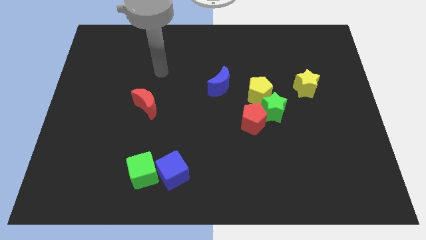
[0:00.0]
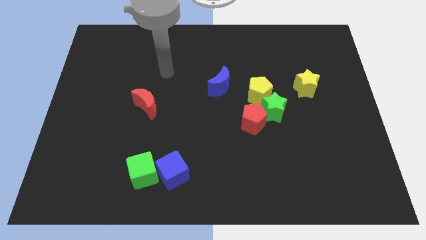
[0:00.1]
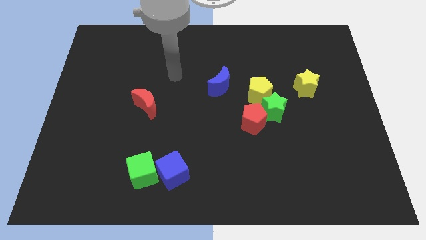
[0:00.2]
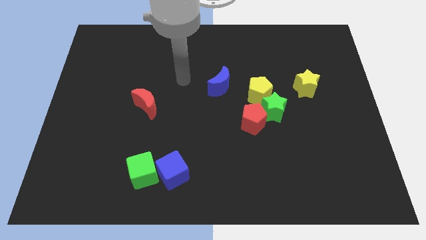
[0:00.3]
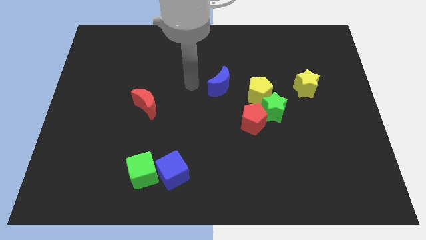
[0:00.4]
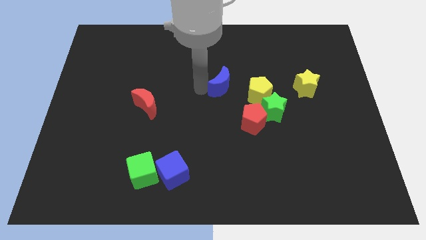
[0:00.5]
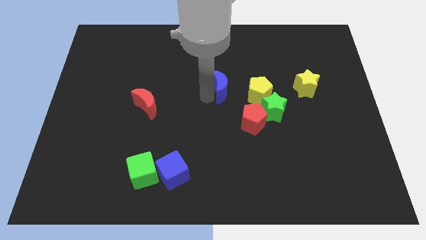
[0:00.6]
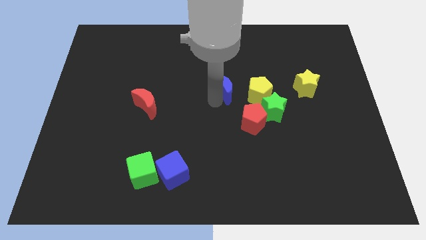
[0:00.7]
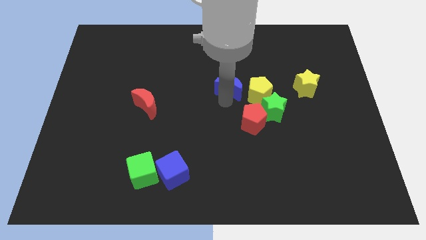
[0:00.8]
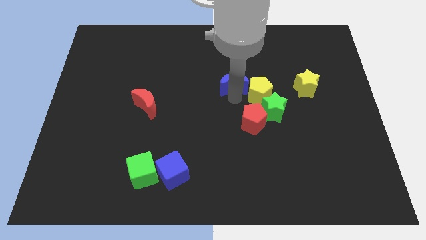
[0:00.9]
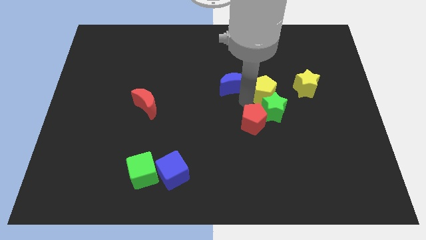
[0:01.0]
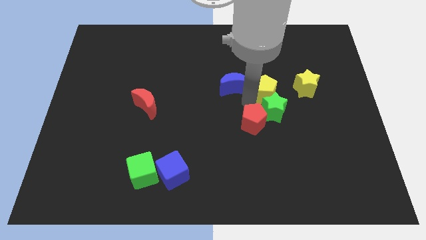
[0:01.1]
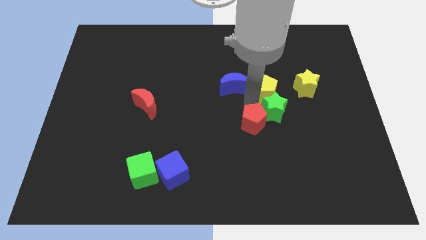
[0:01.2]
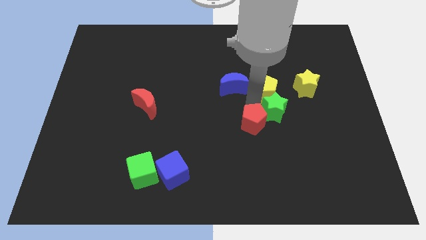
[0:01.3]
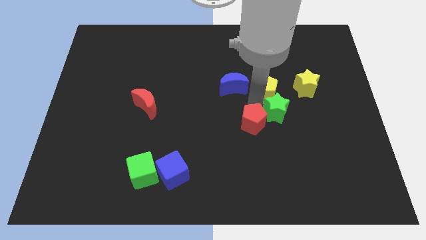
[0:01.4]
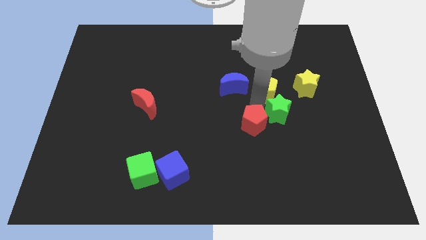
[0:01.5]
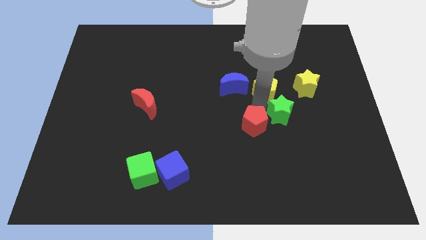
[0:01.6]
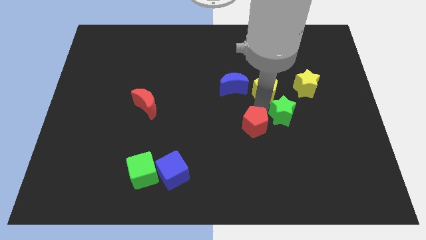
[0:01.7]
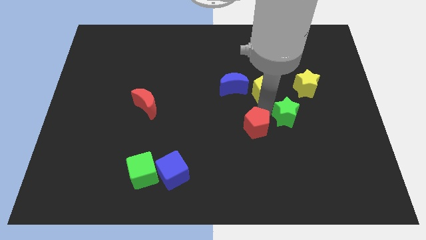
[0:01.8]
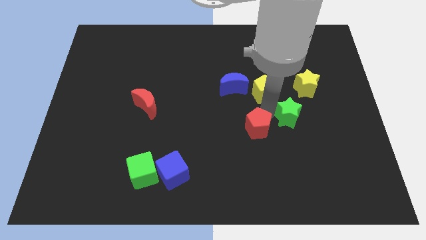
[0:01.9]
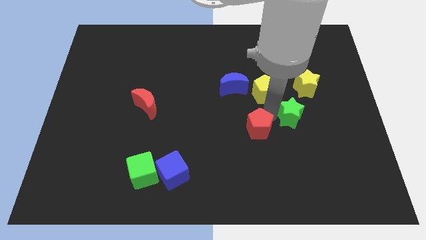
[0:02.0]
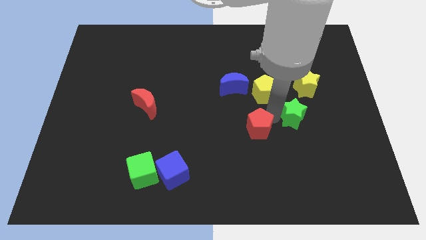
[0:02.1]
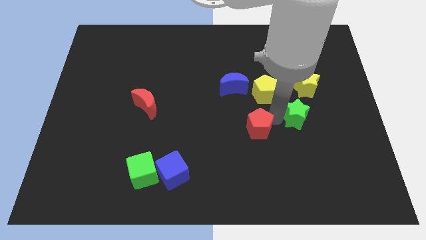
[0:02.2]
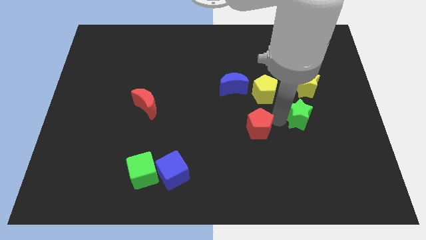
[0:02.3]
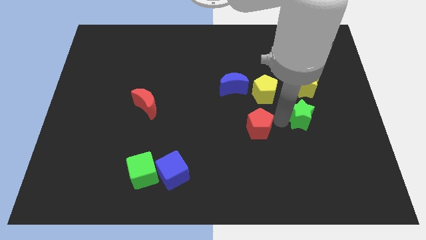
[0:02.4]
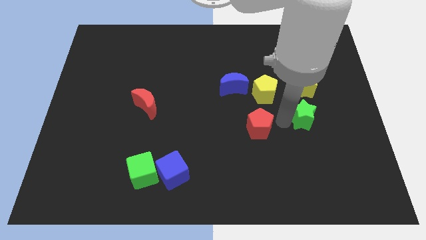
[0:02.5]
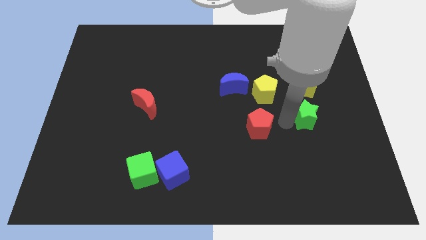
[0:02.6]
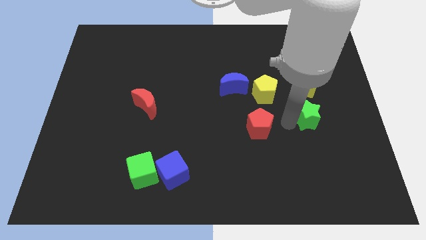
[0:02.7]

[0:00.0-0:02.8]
pull the green star apart from the red pentagon and yellow pentagon

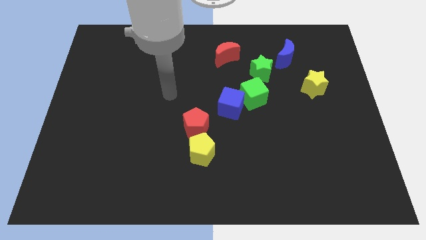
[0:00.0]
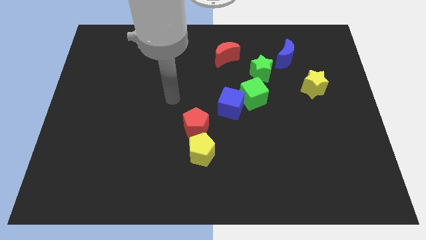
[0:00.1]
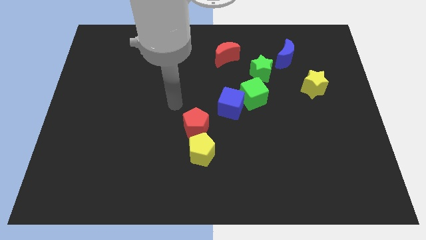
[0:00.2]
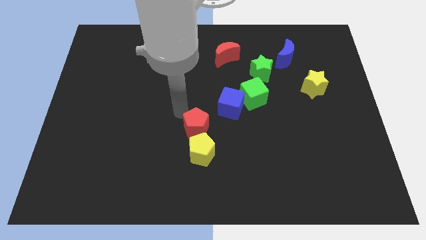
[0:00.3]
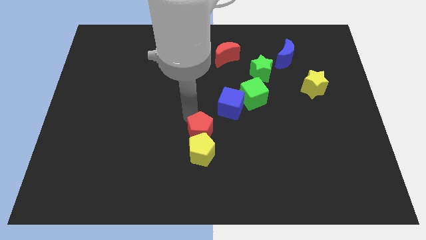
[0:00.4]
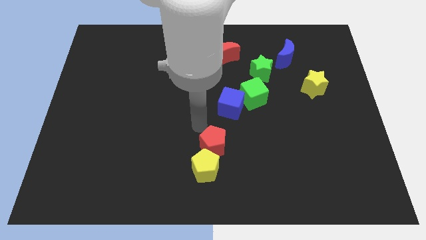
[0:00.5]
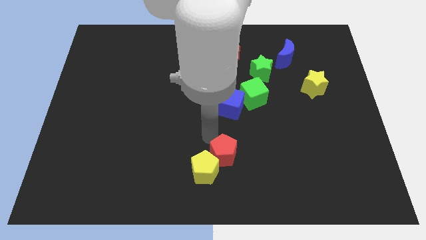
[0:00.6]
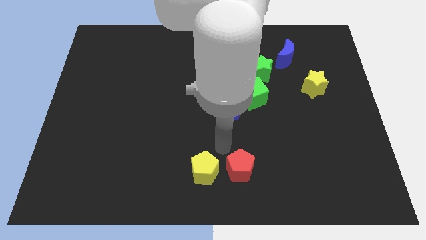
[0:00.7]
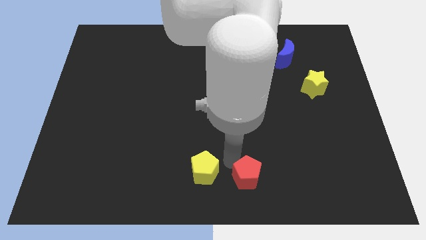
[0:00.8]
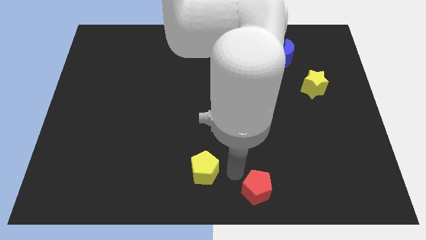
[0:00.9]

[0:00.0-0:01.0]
pull the yellow pentagon apart from the red pentagon

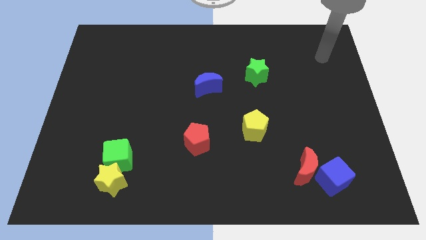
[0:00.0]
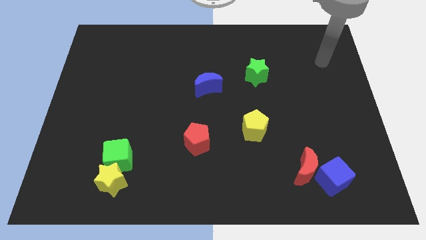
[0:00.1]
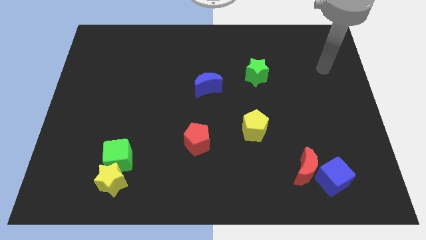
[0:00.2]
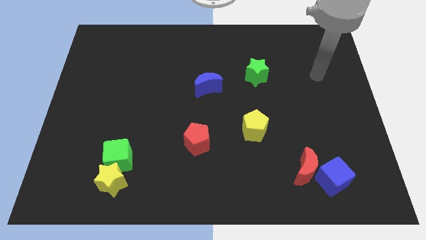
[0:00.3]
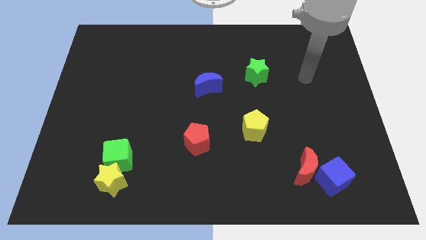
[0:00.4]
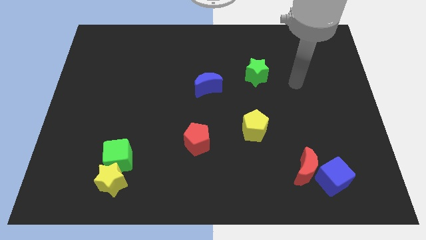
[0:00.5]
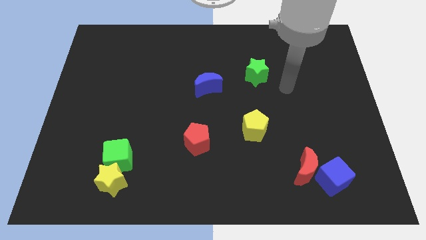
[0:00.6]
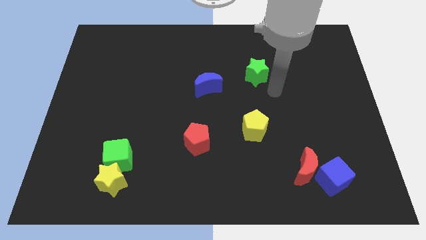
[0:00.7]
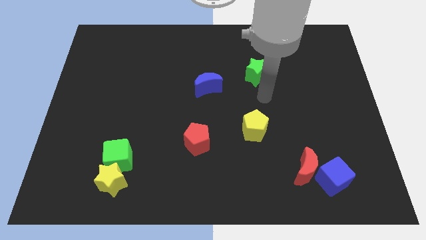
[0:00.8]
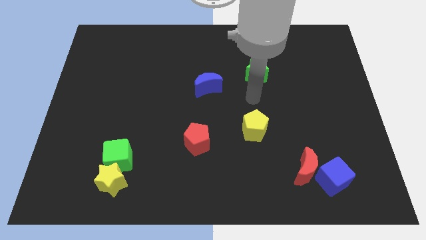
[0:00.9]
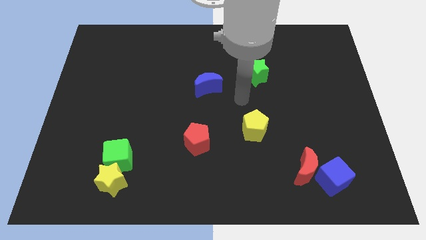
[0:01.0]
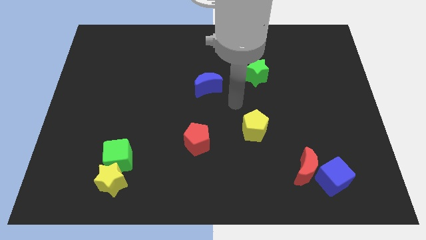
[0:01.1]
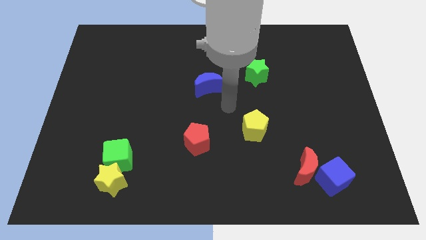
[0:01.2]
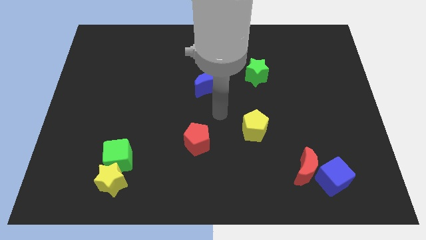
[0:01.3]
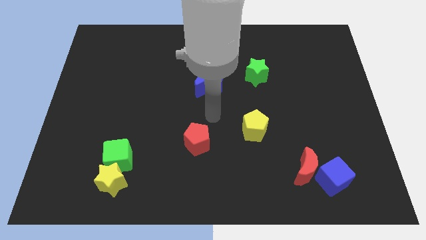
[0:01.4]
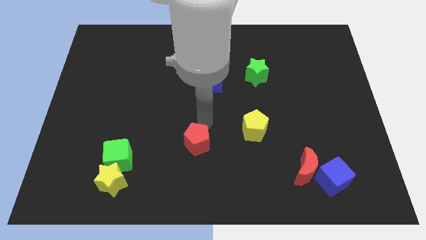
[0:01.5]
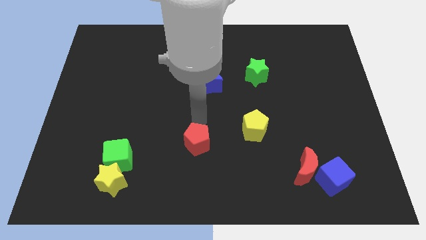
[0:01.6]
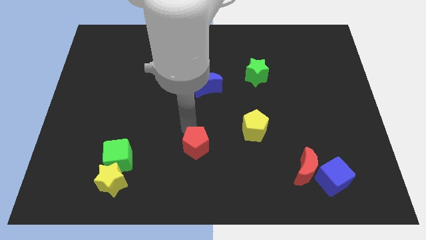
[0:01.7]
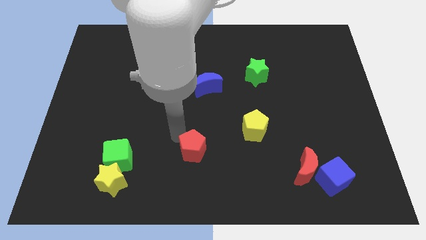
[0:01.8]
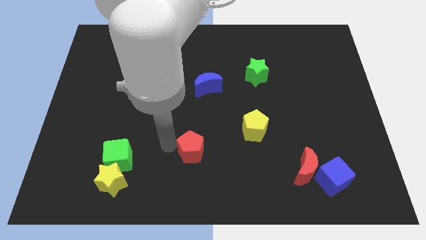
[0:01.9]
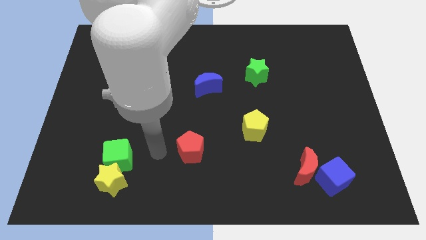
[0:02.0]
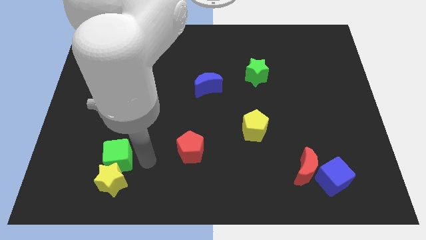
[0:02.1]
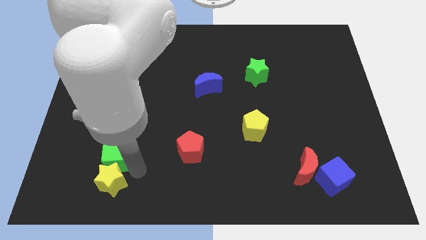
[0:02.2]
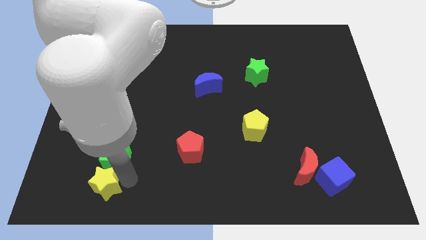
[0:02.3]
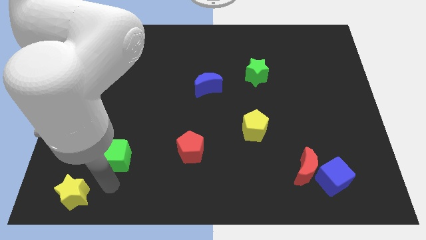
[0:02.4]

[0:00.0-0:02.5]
pull the green cube apart from the yellow star

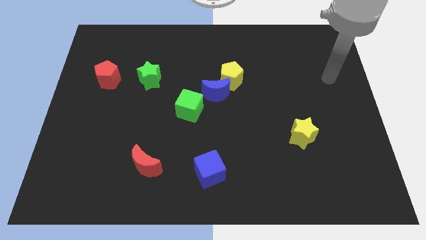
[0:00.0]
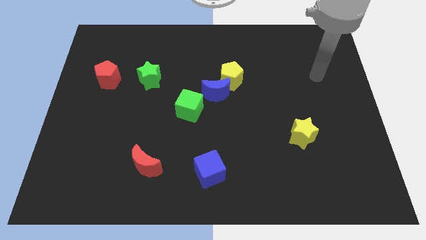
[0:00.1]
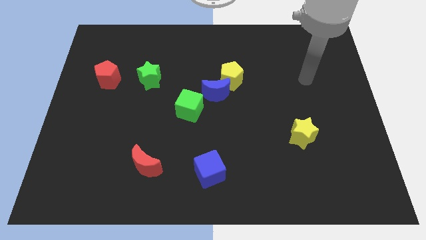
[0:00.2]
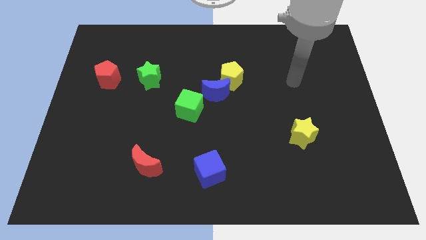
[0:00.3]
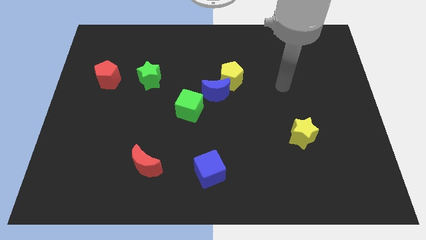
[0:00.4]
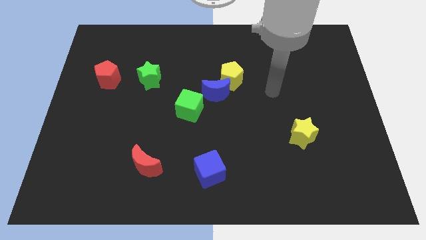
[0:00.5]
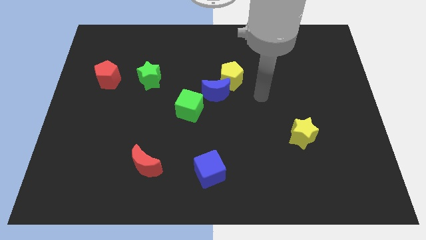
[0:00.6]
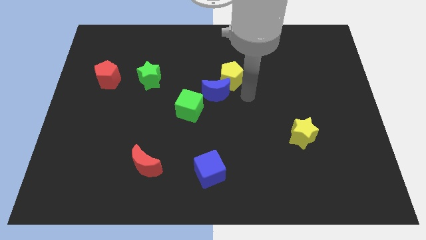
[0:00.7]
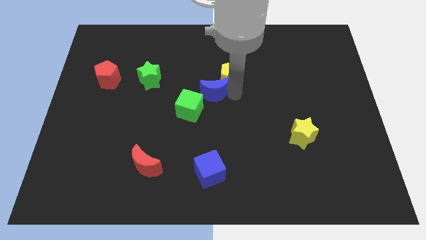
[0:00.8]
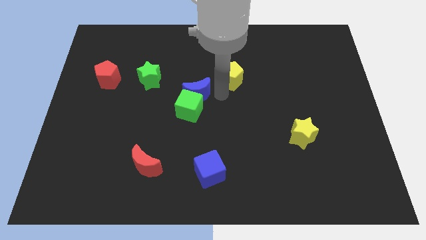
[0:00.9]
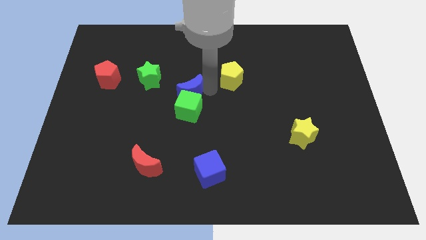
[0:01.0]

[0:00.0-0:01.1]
separate the yellow pentagon from the blue moon

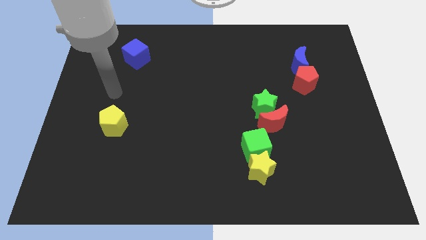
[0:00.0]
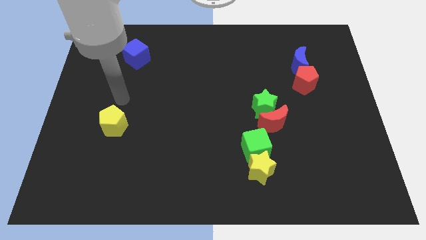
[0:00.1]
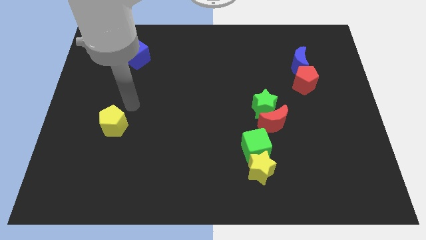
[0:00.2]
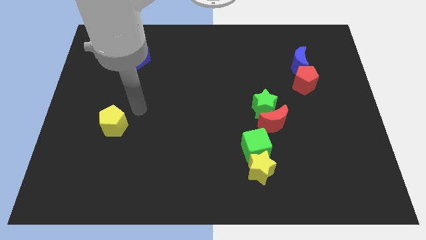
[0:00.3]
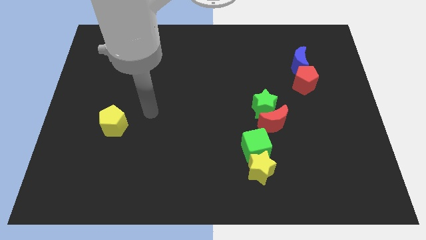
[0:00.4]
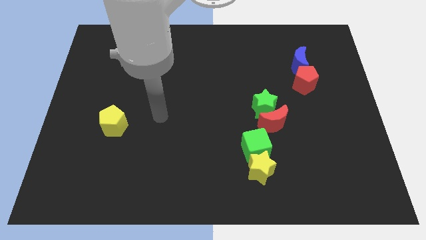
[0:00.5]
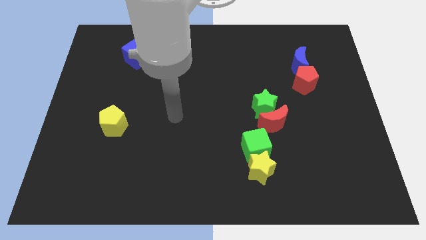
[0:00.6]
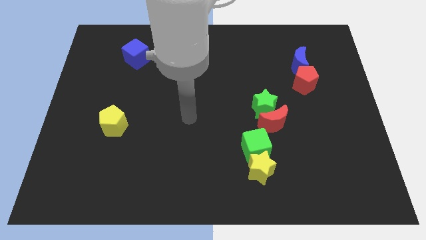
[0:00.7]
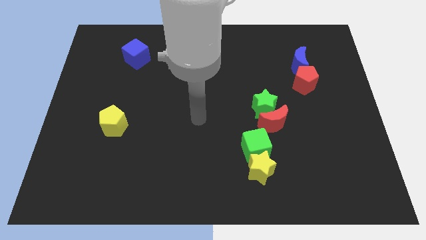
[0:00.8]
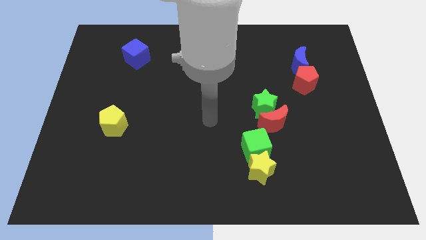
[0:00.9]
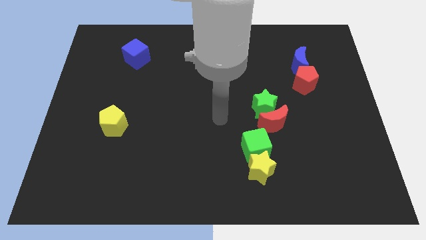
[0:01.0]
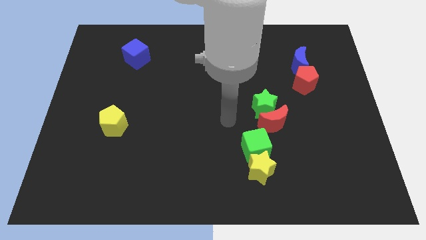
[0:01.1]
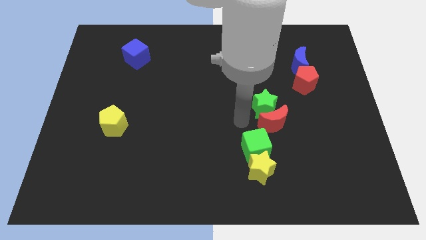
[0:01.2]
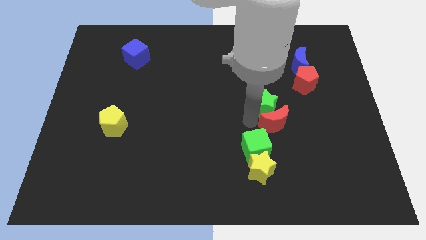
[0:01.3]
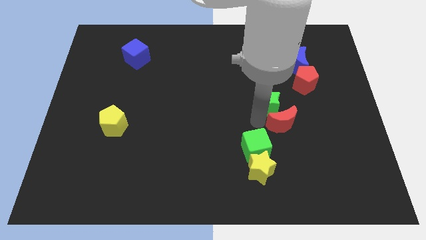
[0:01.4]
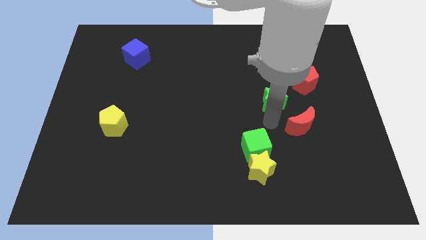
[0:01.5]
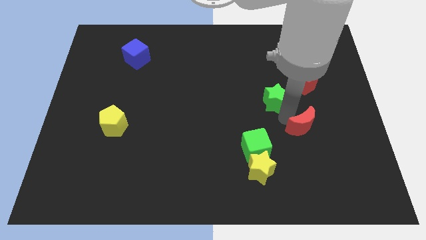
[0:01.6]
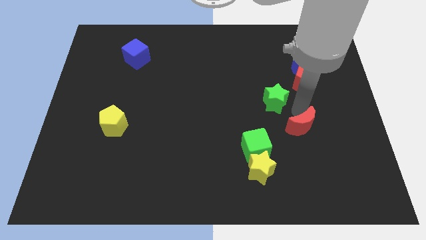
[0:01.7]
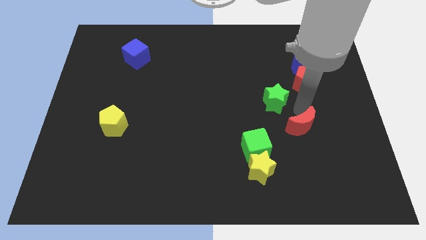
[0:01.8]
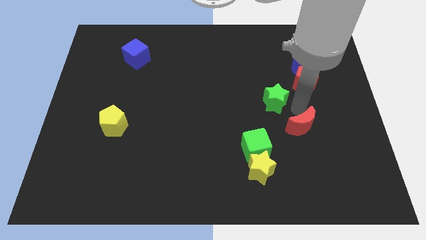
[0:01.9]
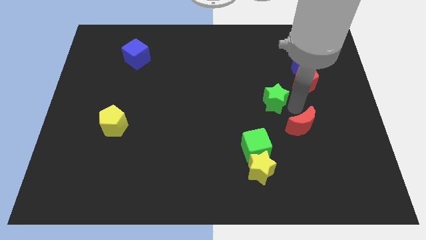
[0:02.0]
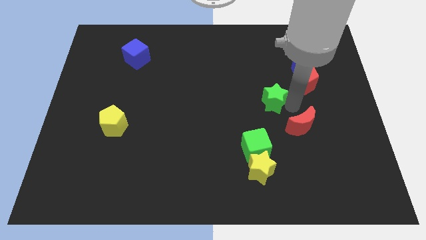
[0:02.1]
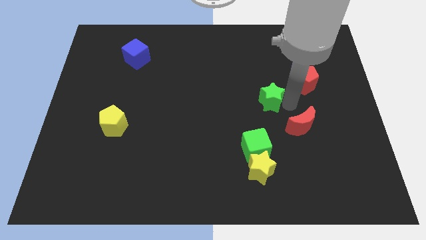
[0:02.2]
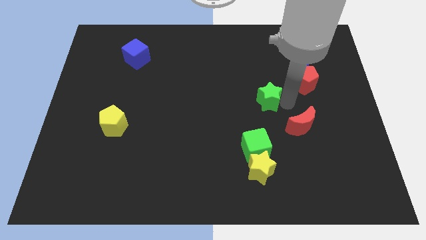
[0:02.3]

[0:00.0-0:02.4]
pull the green star apart from the red moon
